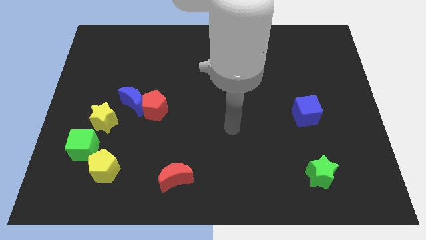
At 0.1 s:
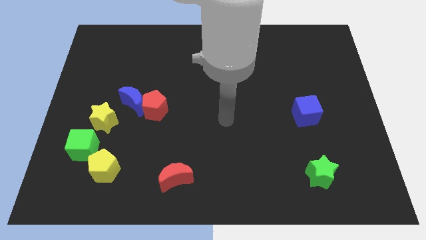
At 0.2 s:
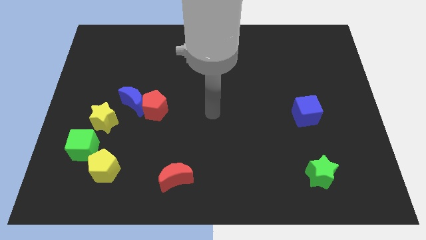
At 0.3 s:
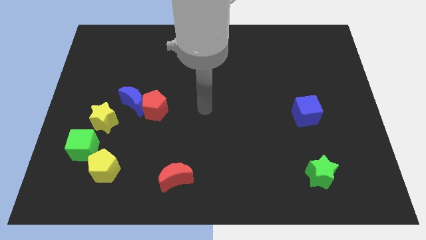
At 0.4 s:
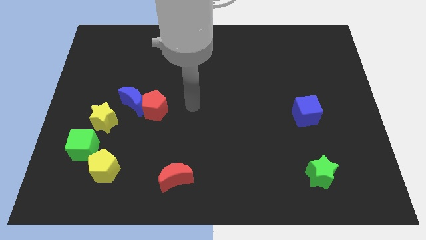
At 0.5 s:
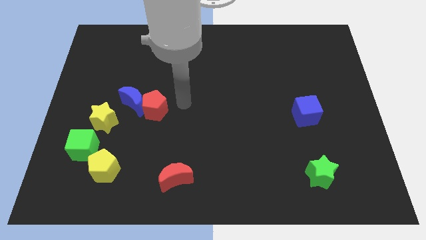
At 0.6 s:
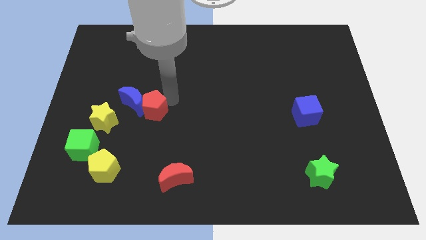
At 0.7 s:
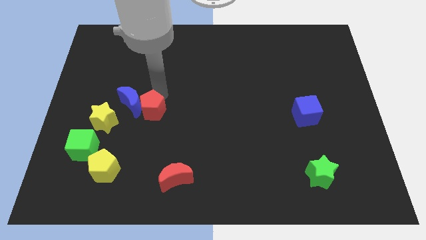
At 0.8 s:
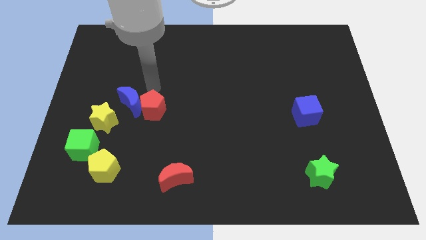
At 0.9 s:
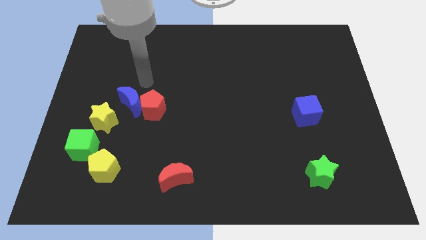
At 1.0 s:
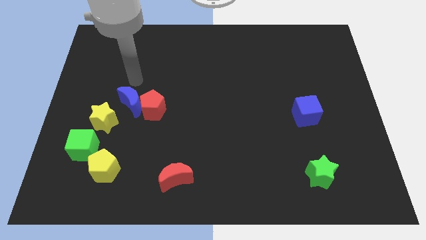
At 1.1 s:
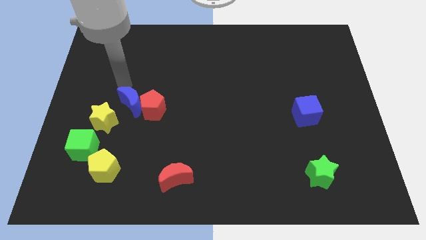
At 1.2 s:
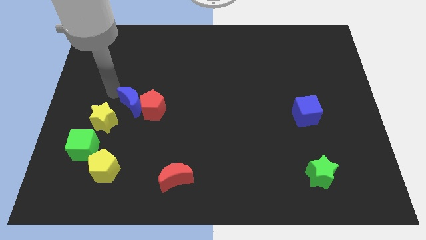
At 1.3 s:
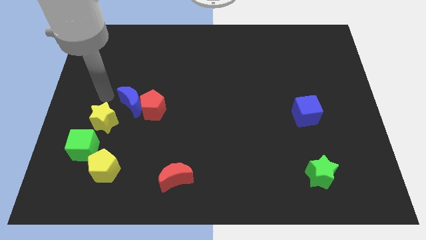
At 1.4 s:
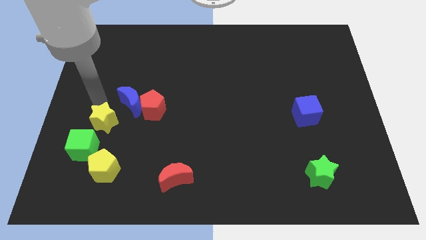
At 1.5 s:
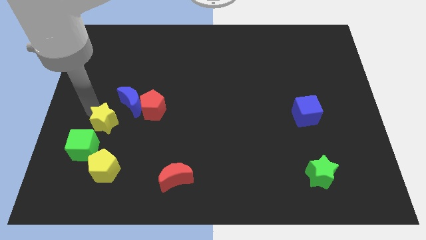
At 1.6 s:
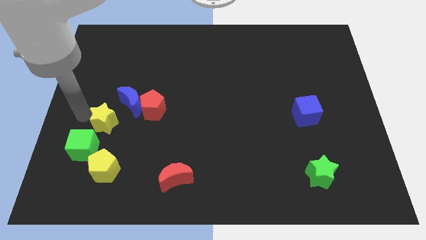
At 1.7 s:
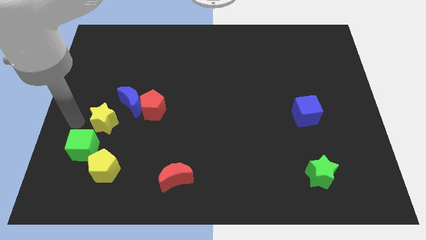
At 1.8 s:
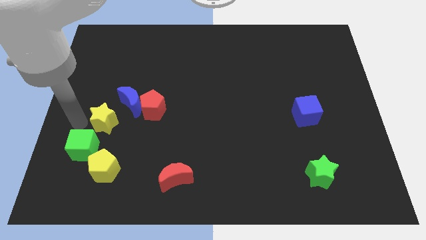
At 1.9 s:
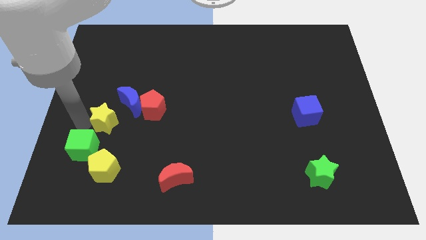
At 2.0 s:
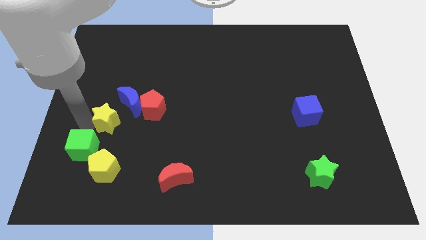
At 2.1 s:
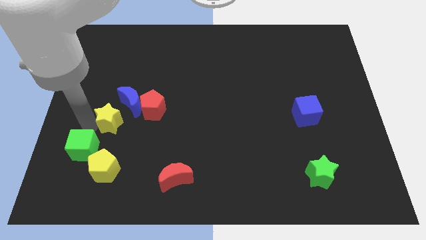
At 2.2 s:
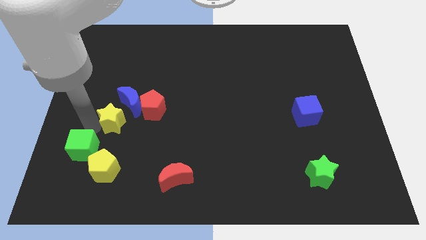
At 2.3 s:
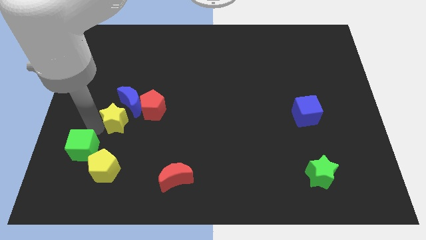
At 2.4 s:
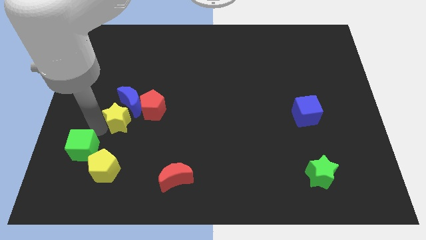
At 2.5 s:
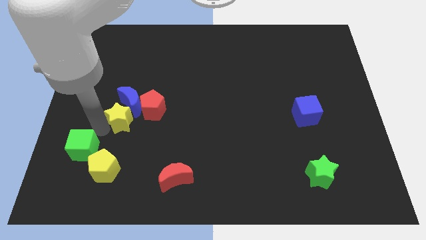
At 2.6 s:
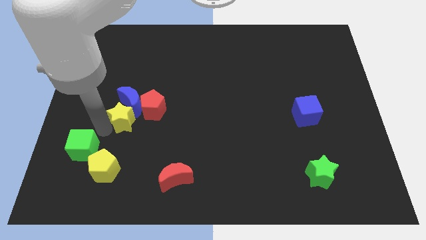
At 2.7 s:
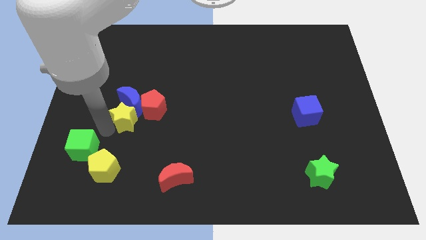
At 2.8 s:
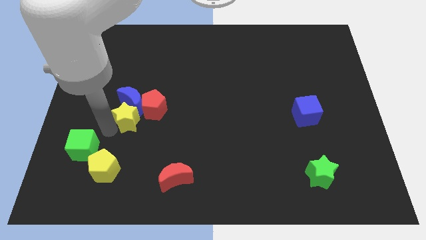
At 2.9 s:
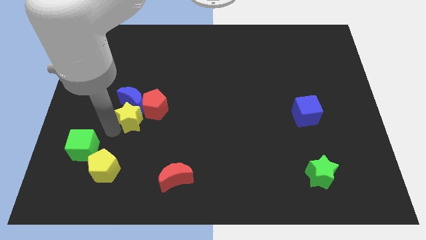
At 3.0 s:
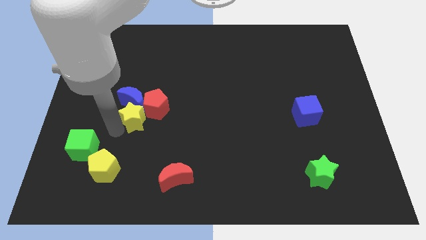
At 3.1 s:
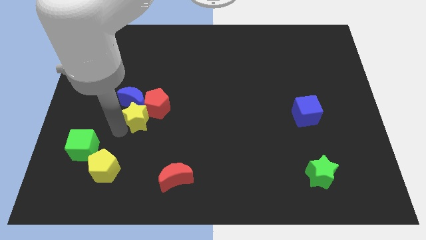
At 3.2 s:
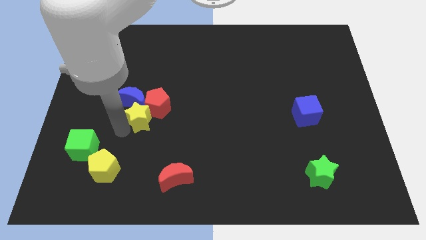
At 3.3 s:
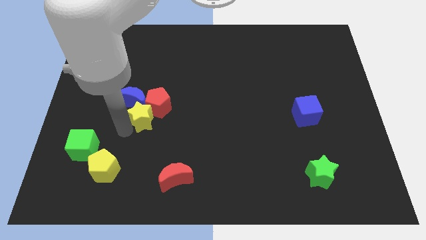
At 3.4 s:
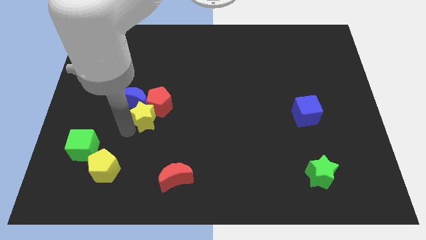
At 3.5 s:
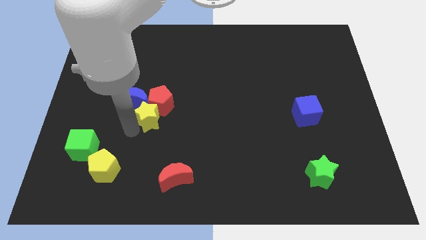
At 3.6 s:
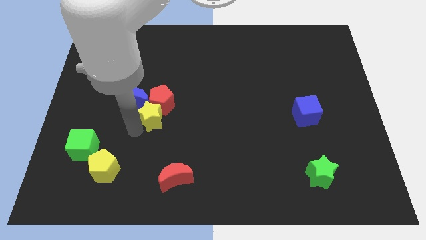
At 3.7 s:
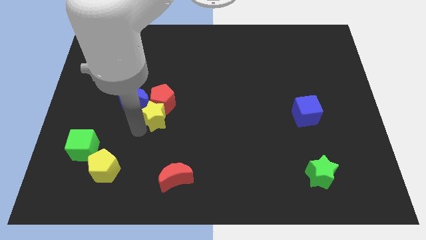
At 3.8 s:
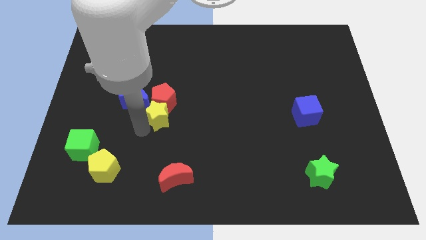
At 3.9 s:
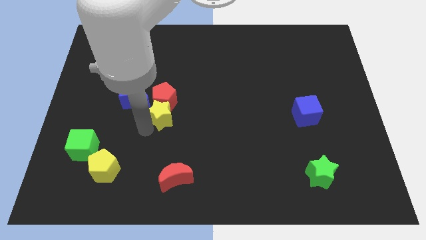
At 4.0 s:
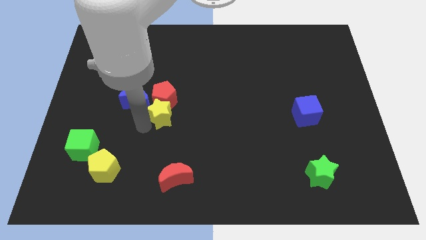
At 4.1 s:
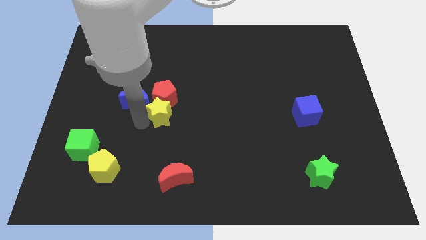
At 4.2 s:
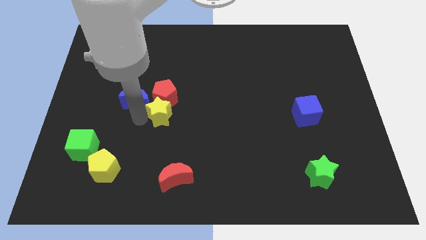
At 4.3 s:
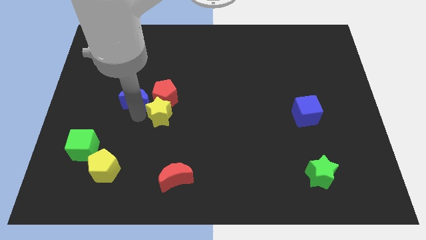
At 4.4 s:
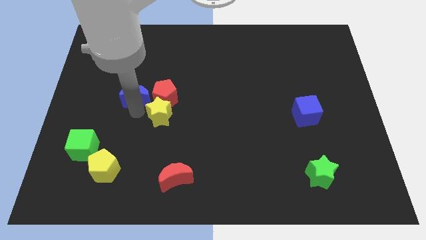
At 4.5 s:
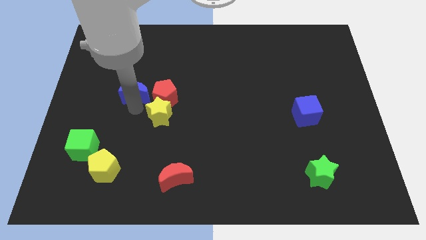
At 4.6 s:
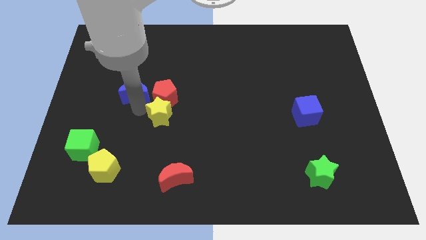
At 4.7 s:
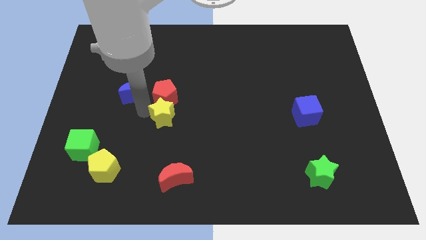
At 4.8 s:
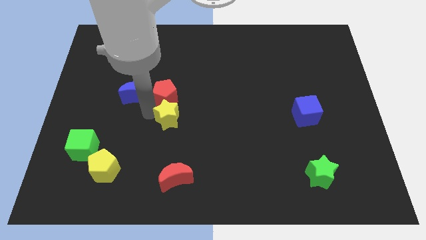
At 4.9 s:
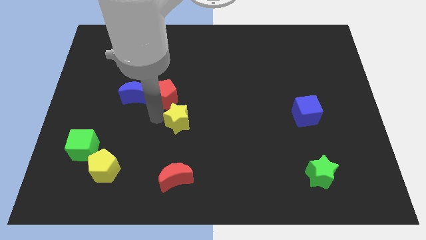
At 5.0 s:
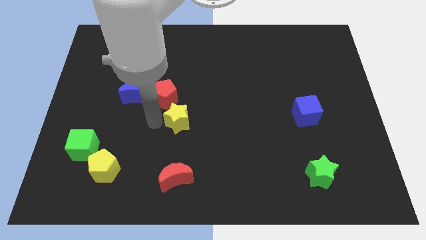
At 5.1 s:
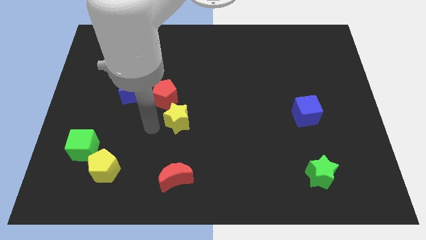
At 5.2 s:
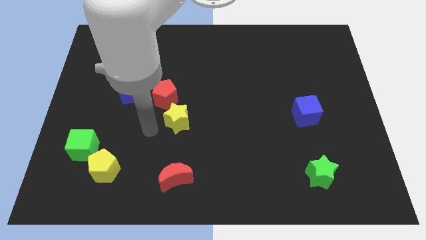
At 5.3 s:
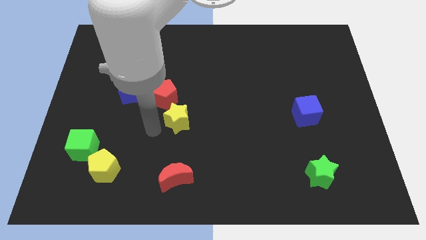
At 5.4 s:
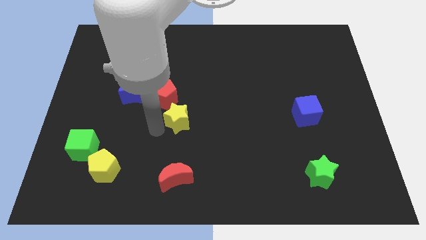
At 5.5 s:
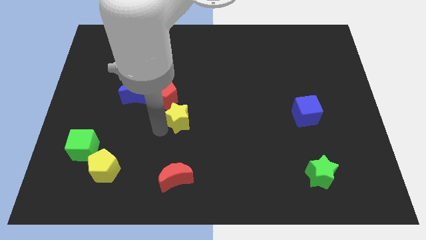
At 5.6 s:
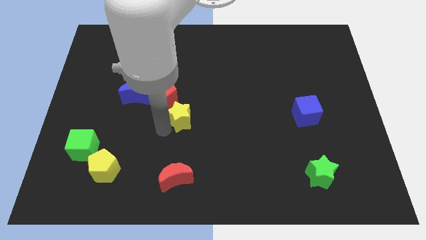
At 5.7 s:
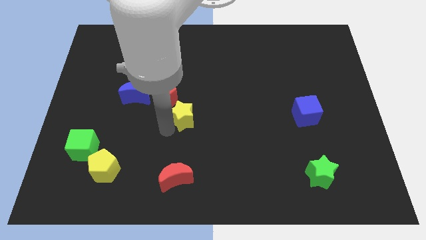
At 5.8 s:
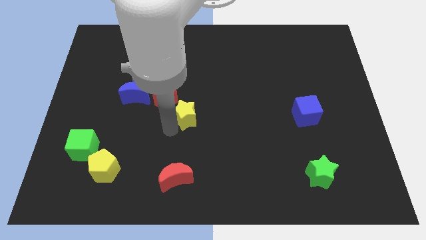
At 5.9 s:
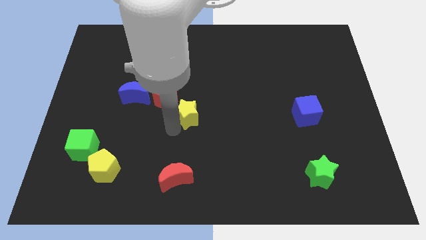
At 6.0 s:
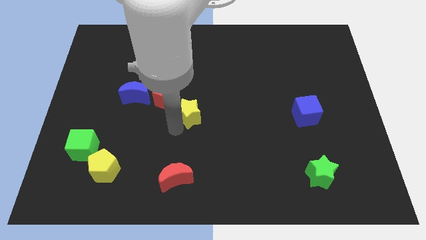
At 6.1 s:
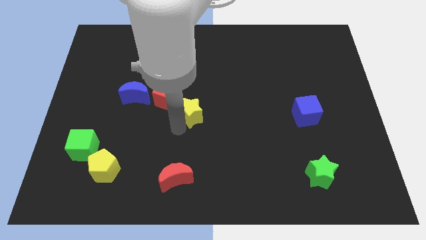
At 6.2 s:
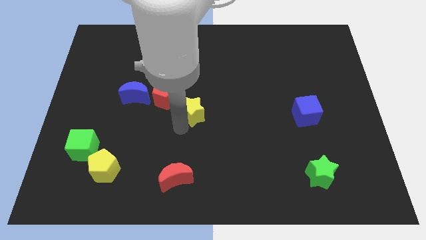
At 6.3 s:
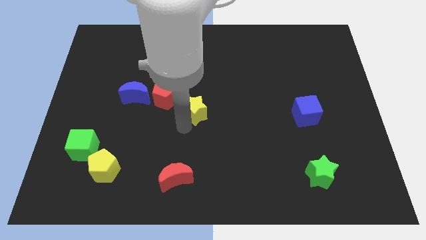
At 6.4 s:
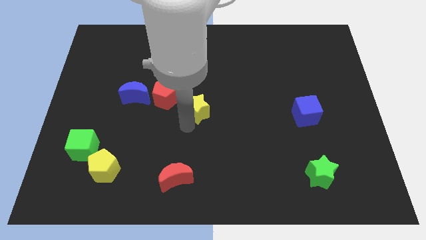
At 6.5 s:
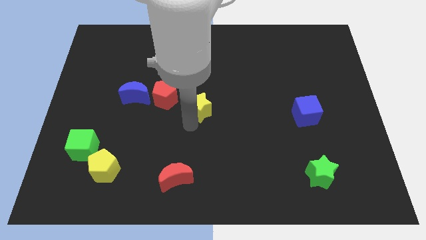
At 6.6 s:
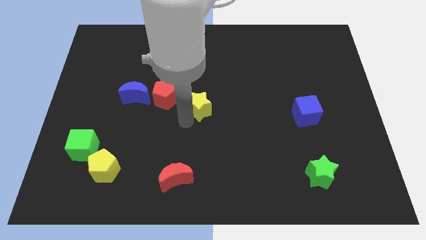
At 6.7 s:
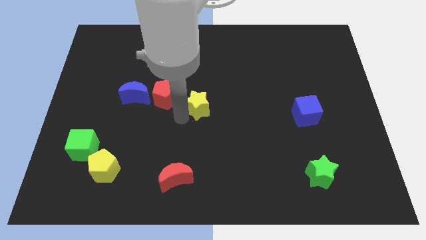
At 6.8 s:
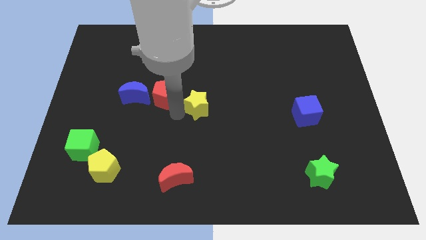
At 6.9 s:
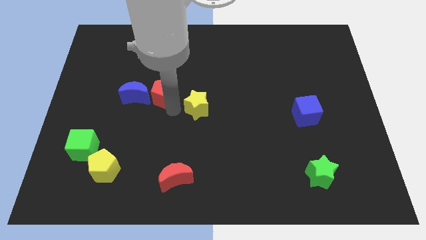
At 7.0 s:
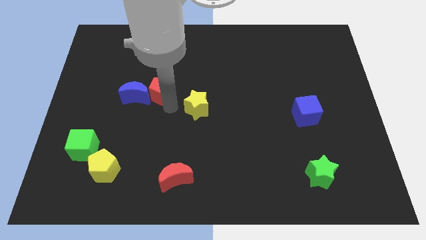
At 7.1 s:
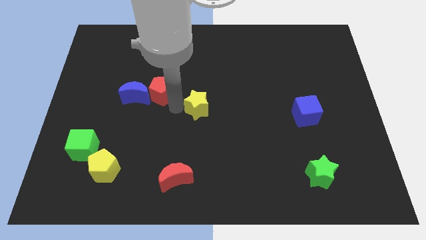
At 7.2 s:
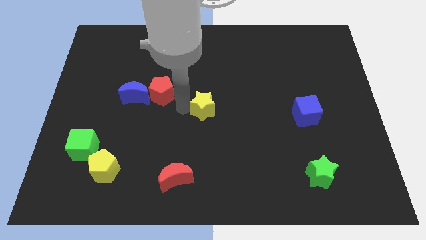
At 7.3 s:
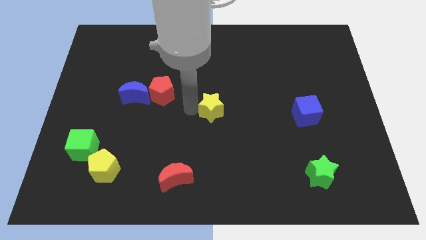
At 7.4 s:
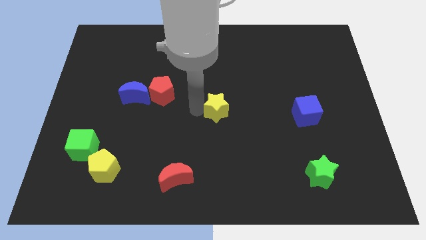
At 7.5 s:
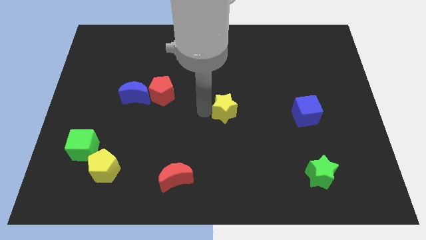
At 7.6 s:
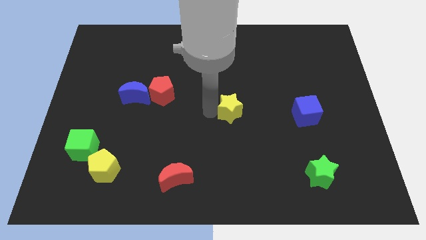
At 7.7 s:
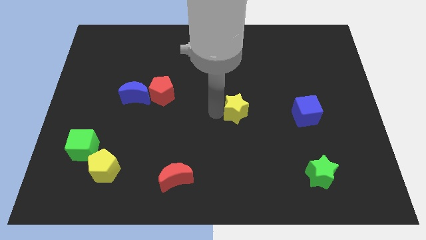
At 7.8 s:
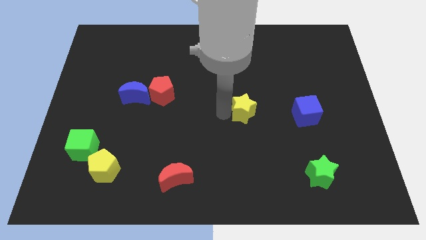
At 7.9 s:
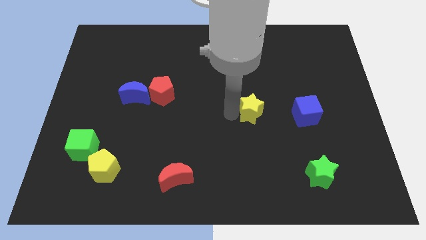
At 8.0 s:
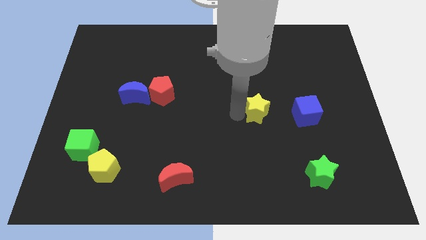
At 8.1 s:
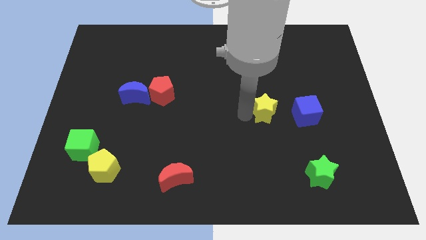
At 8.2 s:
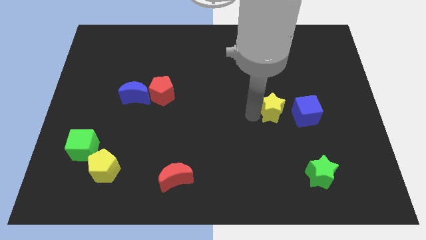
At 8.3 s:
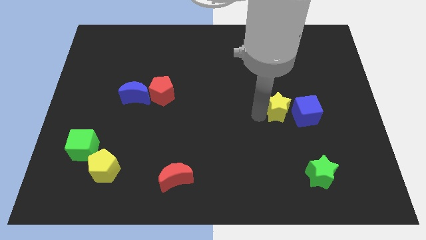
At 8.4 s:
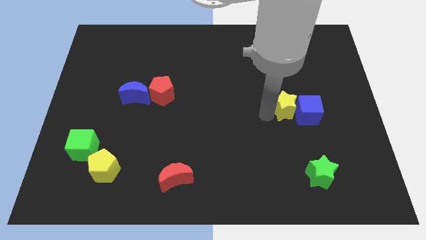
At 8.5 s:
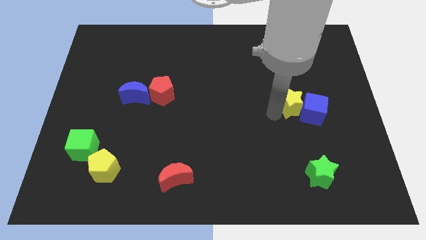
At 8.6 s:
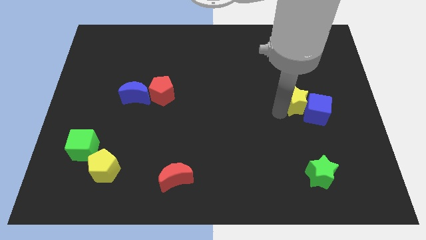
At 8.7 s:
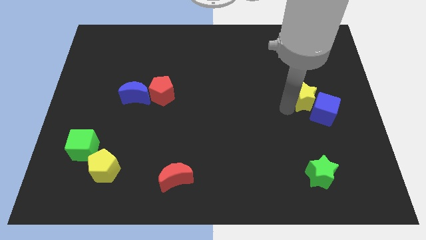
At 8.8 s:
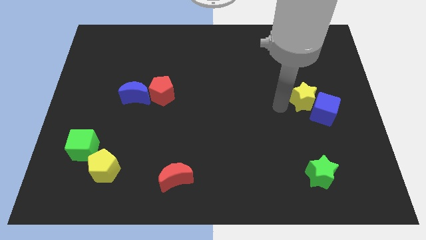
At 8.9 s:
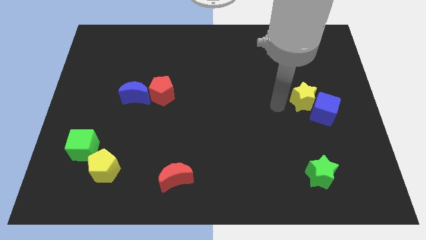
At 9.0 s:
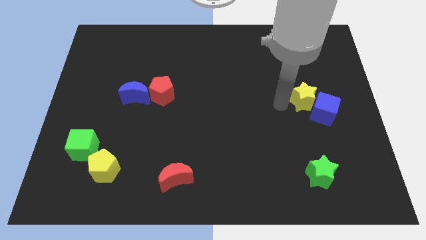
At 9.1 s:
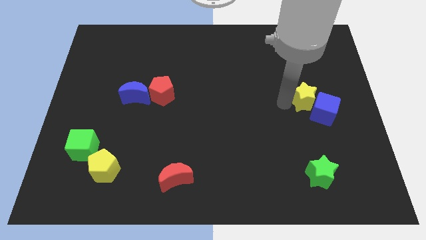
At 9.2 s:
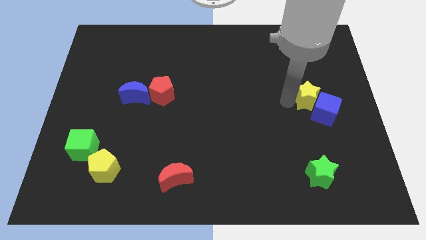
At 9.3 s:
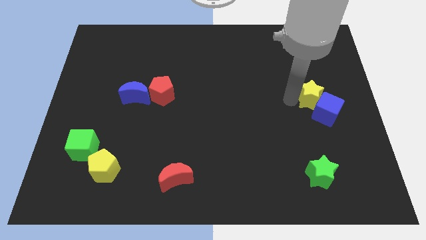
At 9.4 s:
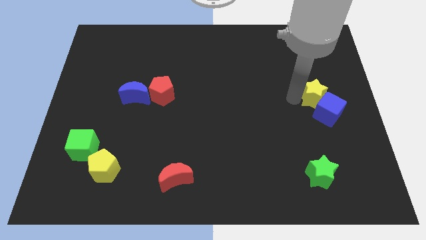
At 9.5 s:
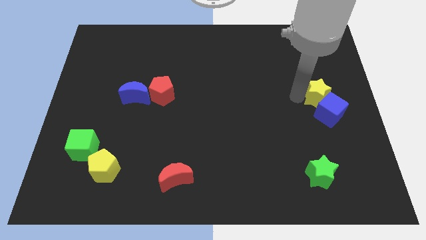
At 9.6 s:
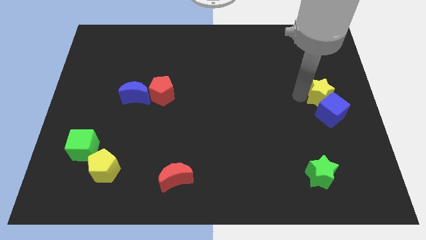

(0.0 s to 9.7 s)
slide the yellow star to the top right of the blue cube
